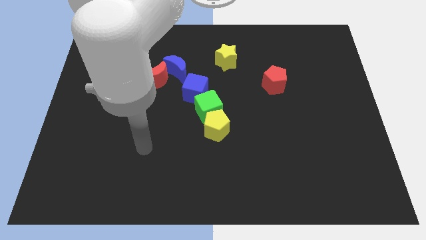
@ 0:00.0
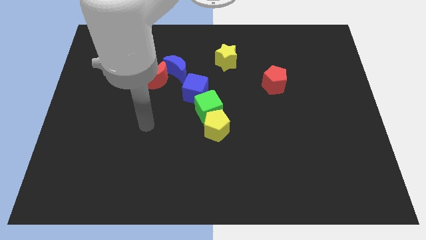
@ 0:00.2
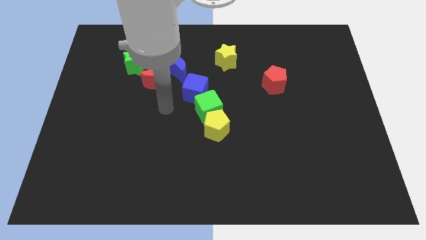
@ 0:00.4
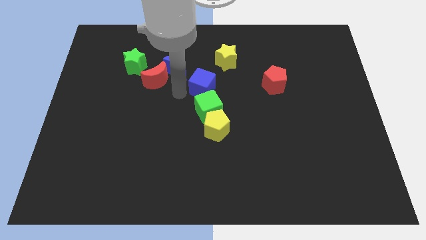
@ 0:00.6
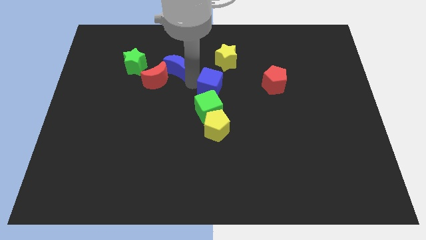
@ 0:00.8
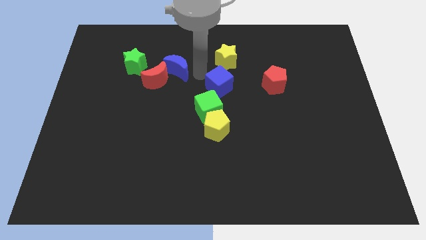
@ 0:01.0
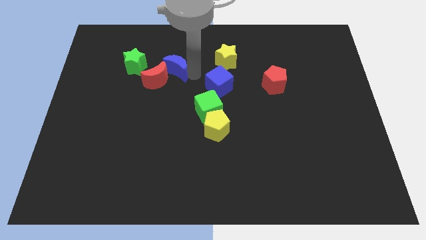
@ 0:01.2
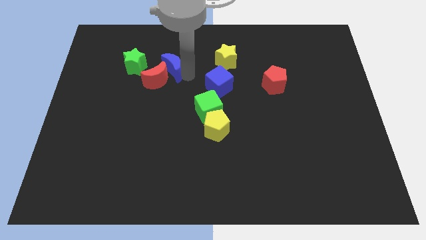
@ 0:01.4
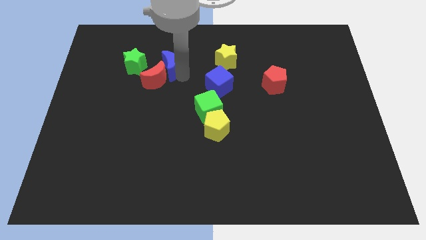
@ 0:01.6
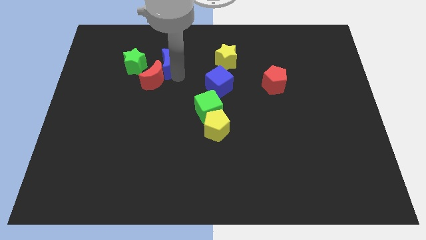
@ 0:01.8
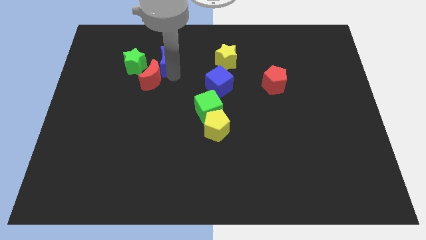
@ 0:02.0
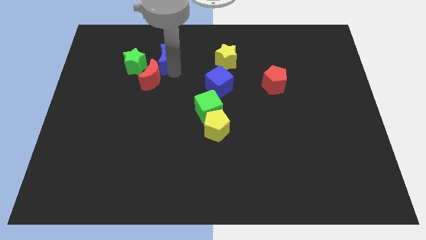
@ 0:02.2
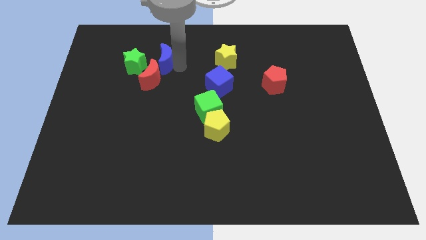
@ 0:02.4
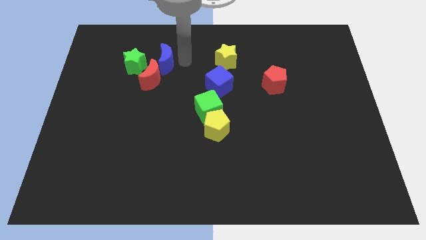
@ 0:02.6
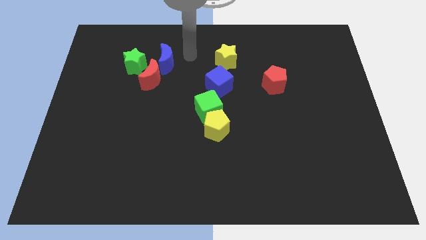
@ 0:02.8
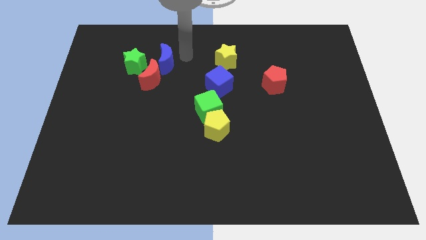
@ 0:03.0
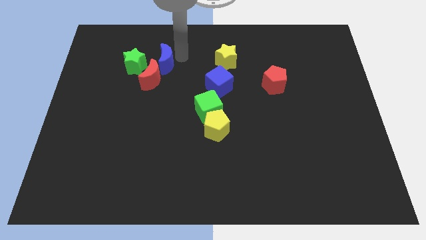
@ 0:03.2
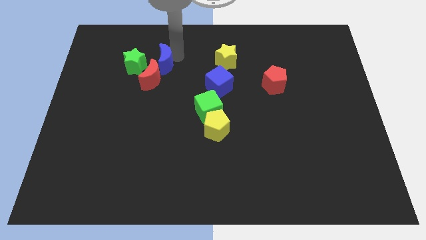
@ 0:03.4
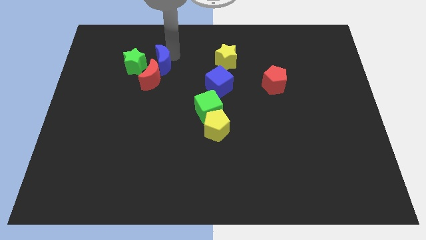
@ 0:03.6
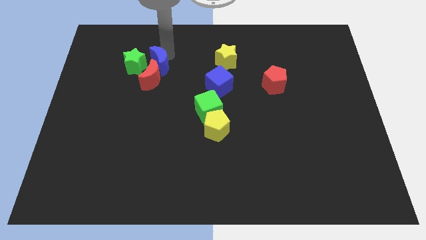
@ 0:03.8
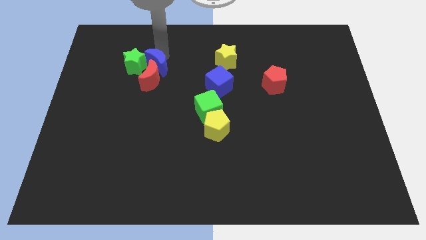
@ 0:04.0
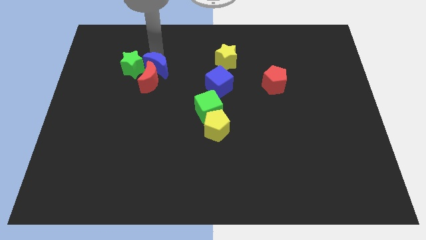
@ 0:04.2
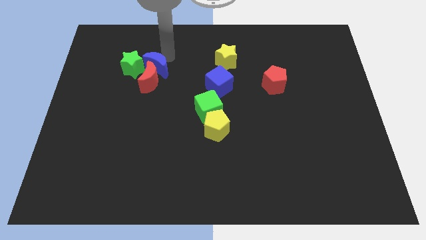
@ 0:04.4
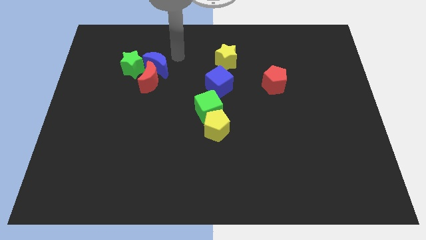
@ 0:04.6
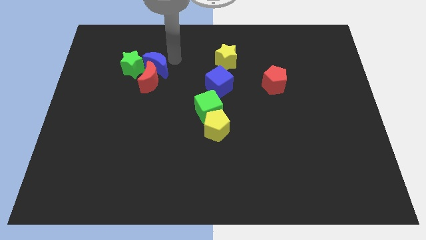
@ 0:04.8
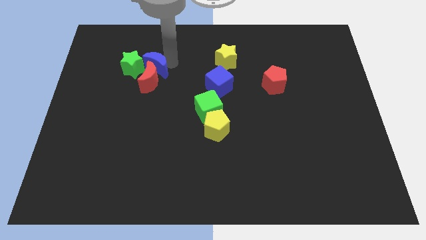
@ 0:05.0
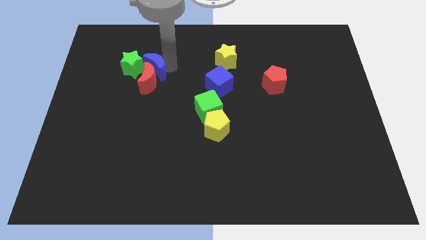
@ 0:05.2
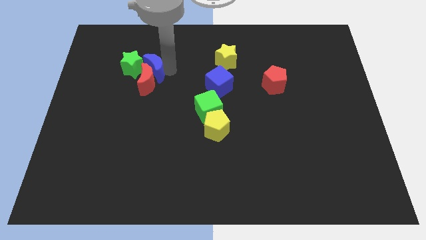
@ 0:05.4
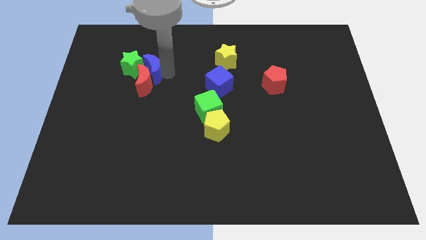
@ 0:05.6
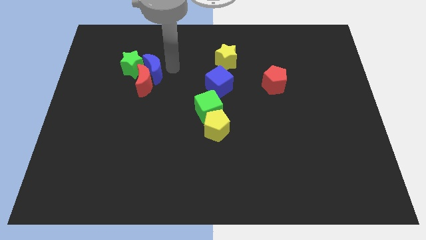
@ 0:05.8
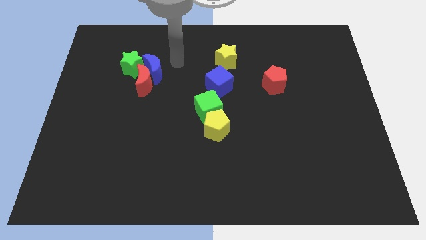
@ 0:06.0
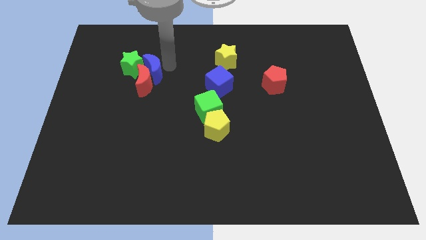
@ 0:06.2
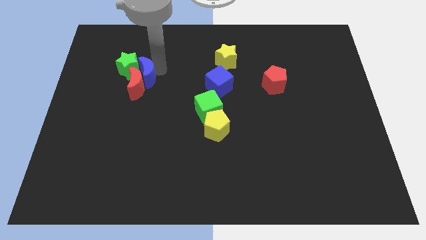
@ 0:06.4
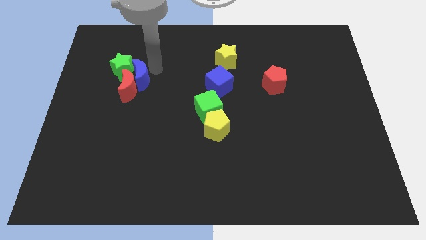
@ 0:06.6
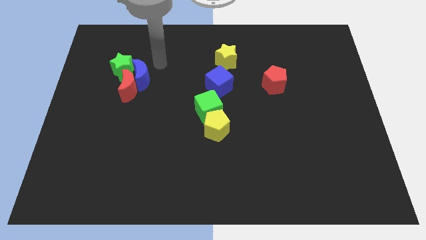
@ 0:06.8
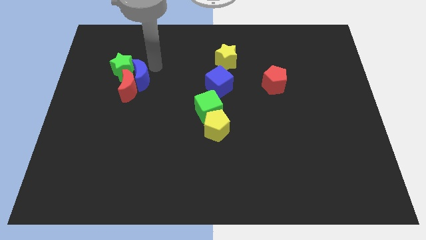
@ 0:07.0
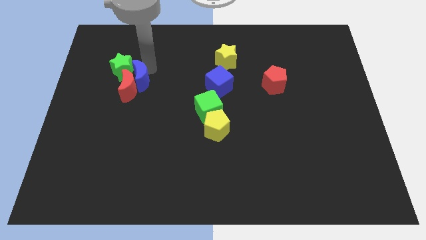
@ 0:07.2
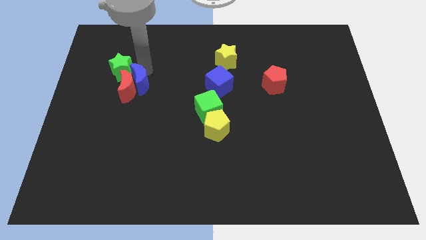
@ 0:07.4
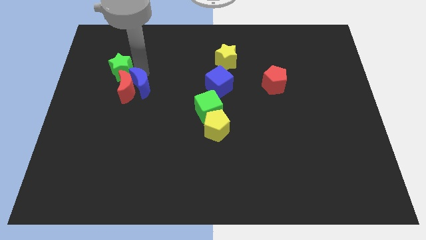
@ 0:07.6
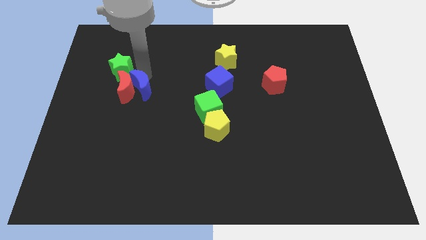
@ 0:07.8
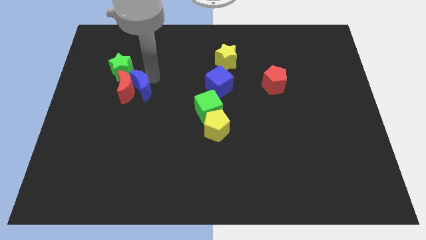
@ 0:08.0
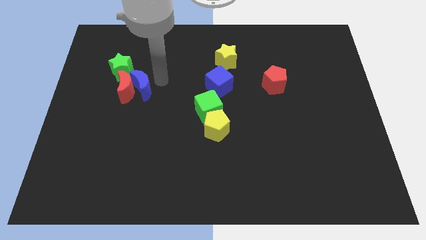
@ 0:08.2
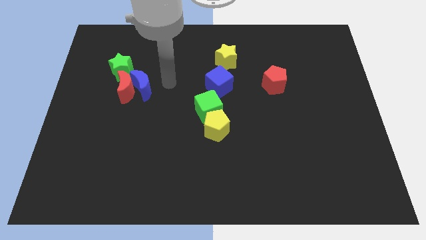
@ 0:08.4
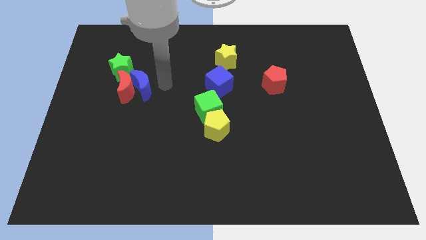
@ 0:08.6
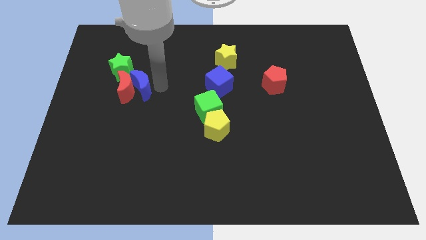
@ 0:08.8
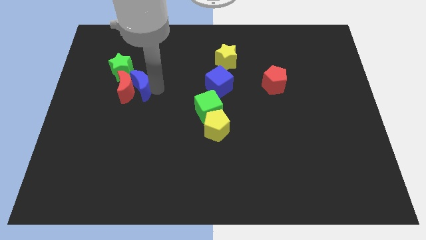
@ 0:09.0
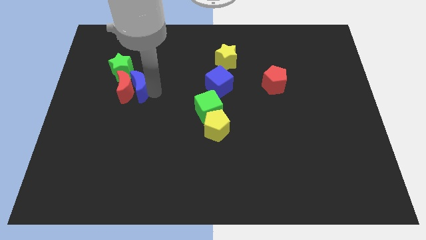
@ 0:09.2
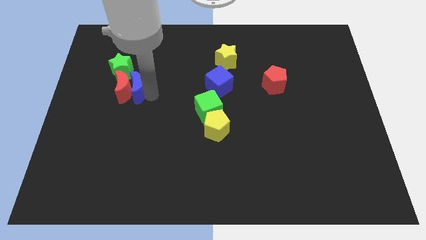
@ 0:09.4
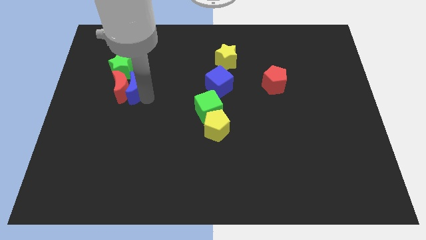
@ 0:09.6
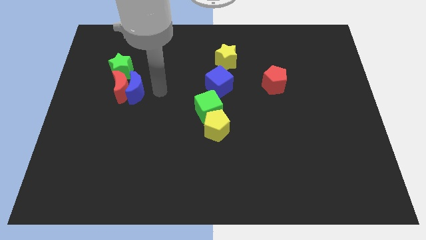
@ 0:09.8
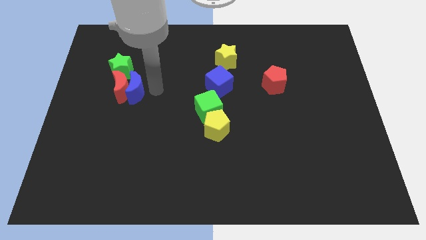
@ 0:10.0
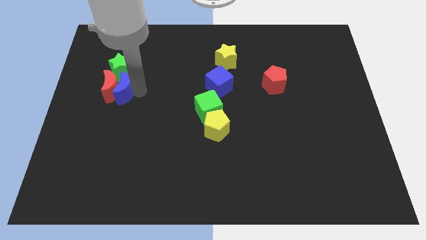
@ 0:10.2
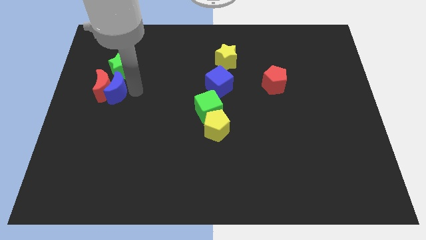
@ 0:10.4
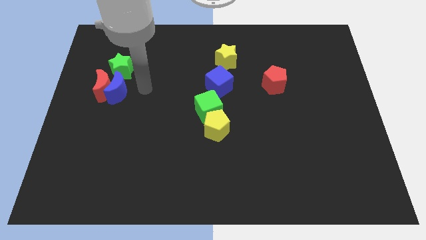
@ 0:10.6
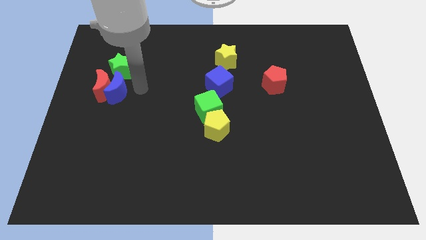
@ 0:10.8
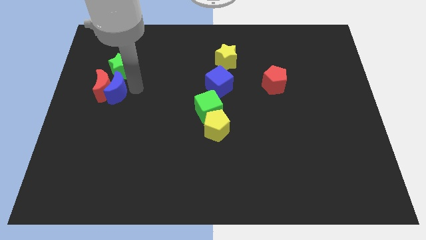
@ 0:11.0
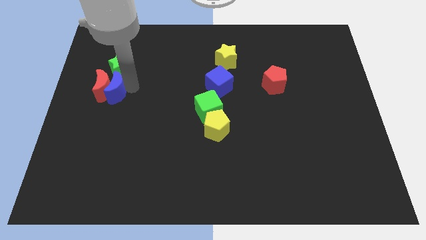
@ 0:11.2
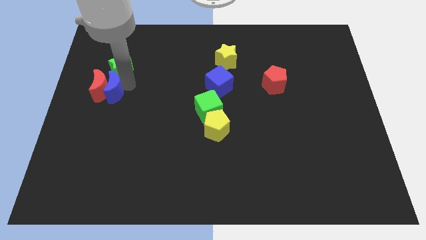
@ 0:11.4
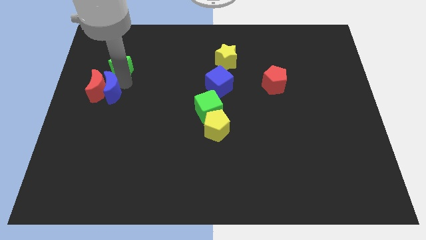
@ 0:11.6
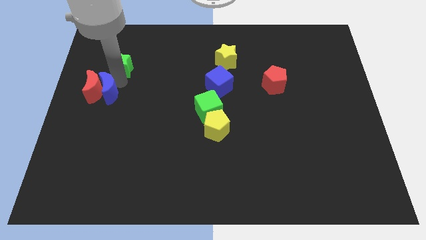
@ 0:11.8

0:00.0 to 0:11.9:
move the blue moon to the center left
